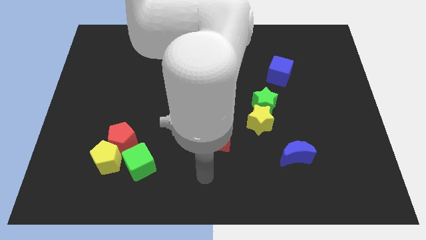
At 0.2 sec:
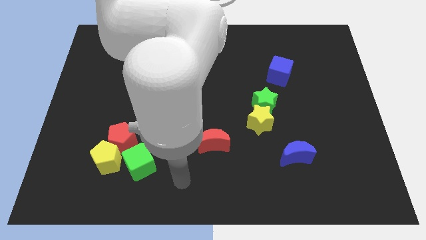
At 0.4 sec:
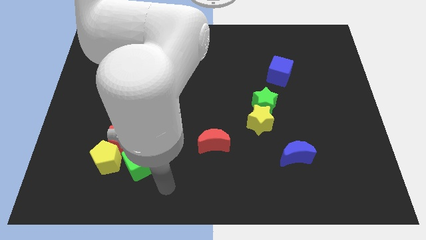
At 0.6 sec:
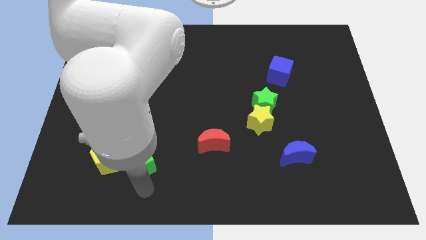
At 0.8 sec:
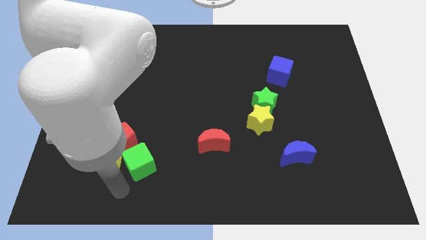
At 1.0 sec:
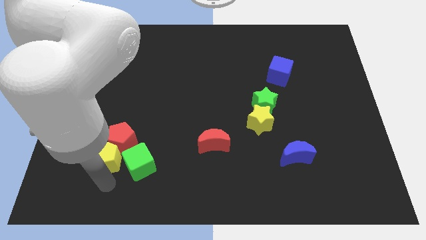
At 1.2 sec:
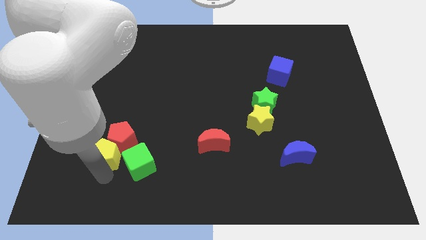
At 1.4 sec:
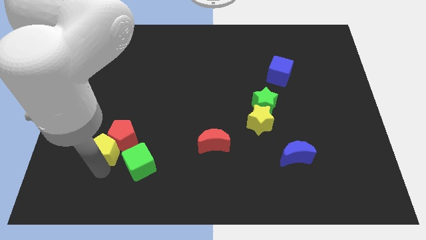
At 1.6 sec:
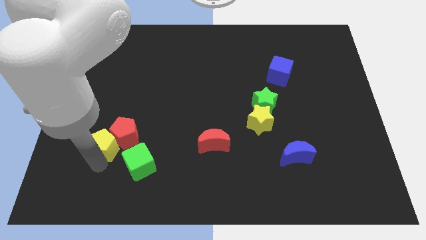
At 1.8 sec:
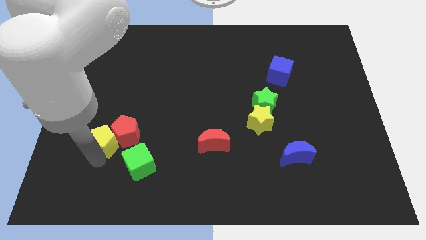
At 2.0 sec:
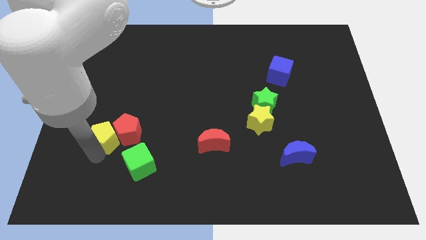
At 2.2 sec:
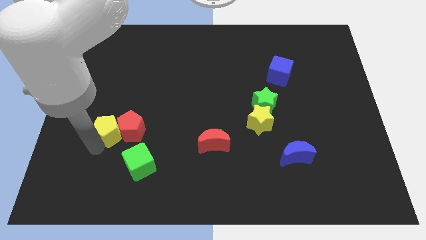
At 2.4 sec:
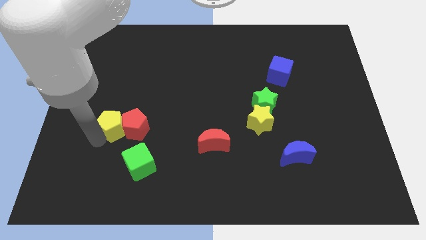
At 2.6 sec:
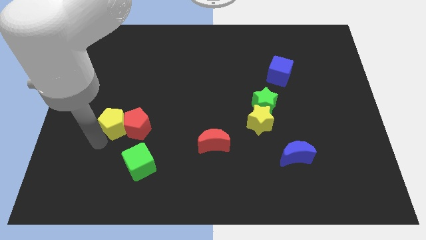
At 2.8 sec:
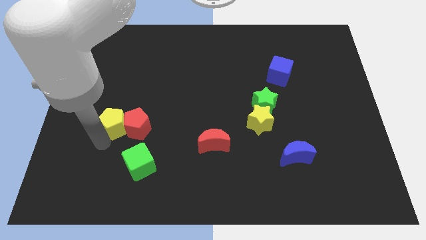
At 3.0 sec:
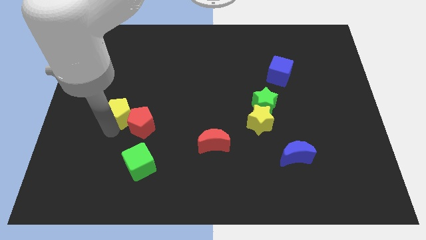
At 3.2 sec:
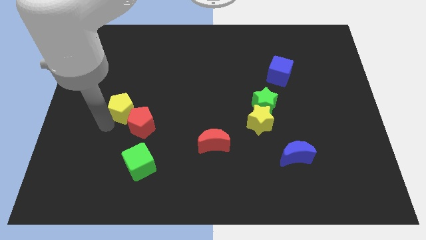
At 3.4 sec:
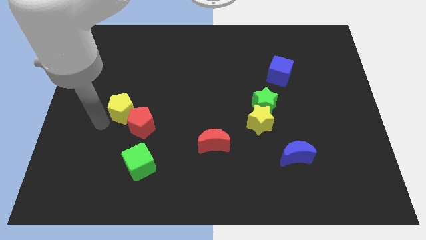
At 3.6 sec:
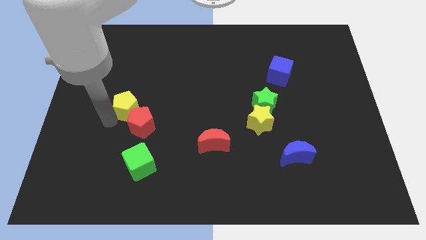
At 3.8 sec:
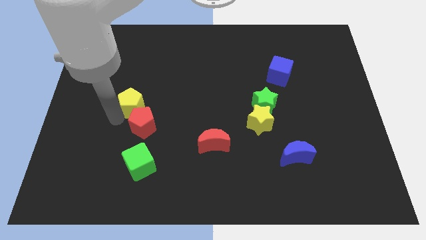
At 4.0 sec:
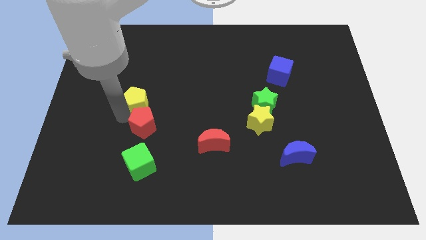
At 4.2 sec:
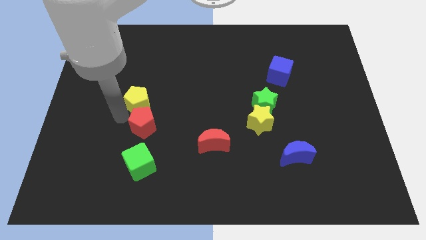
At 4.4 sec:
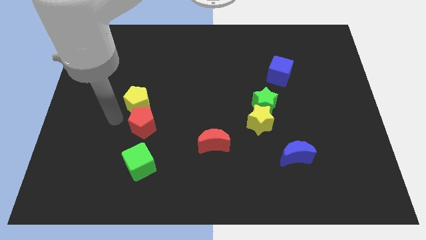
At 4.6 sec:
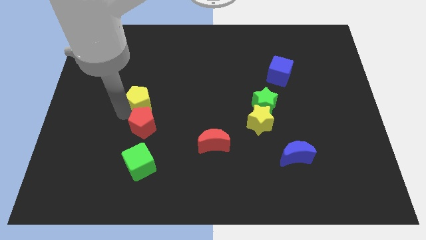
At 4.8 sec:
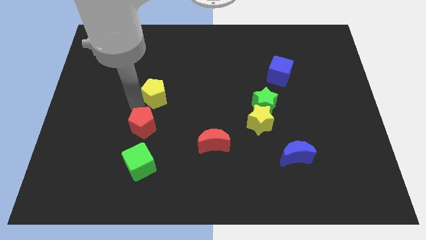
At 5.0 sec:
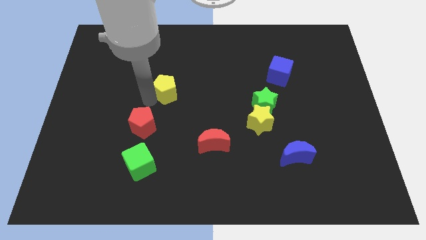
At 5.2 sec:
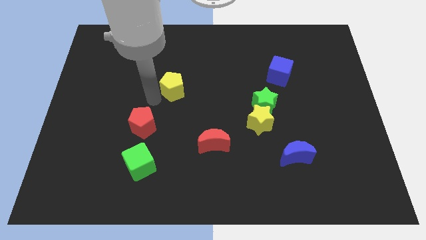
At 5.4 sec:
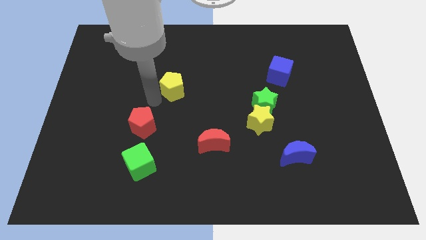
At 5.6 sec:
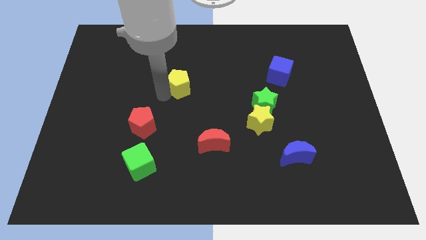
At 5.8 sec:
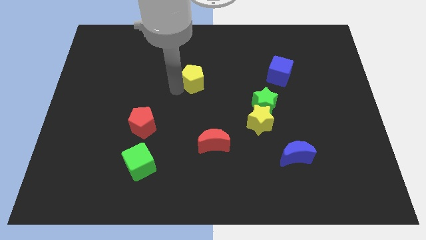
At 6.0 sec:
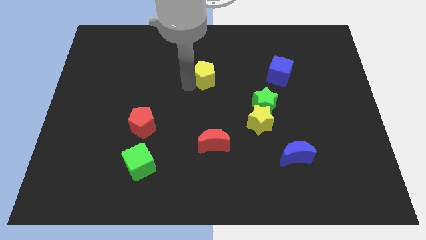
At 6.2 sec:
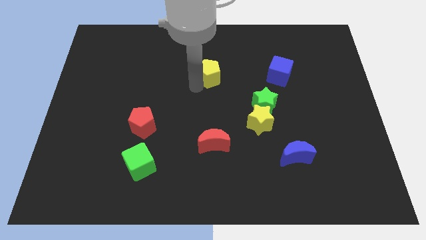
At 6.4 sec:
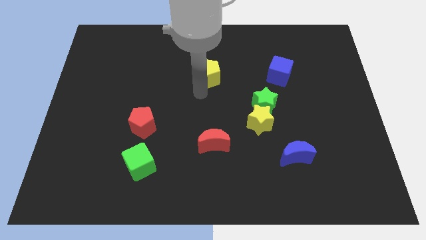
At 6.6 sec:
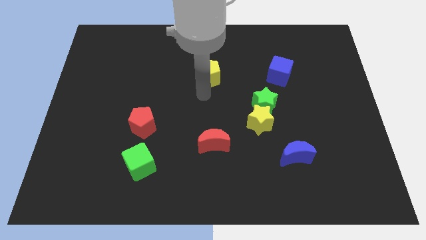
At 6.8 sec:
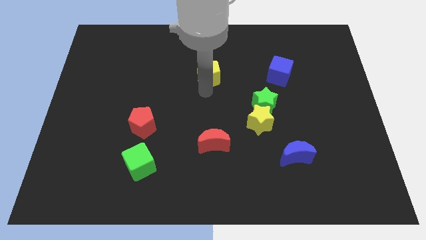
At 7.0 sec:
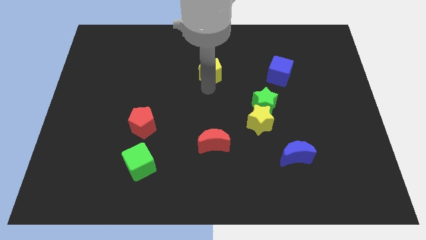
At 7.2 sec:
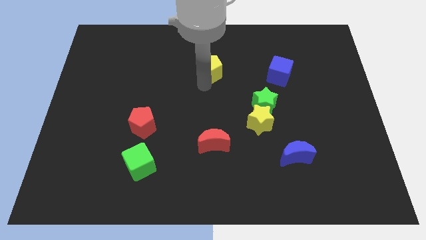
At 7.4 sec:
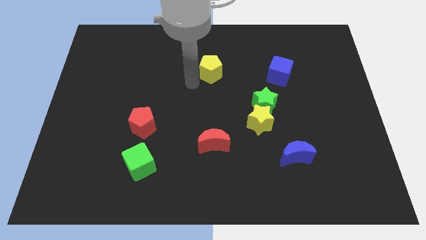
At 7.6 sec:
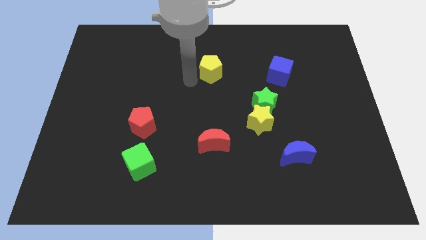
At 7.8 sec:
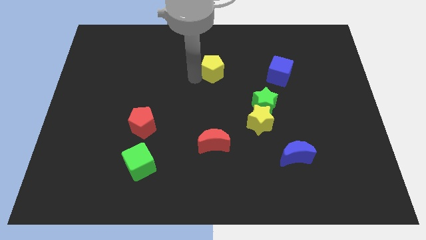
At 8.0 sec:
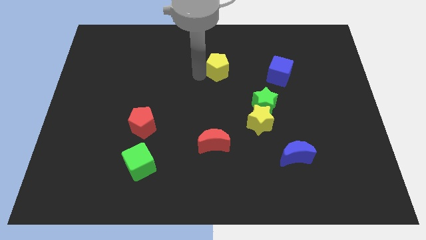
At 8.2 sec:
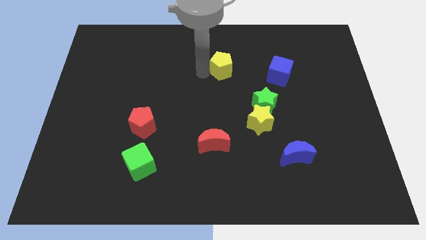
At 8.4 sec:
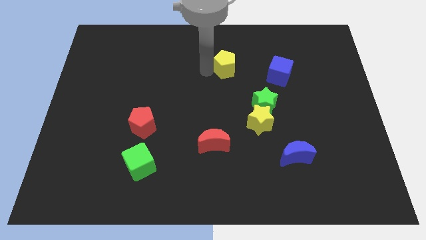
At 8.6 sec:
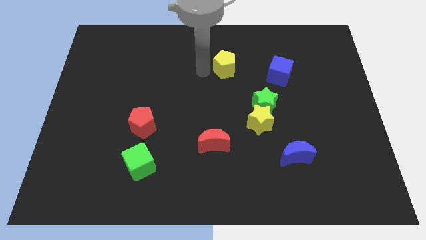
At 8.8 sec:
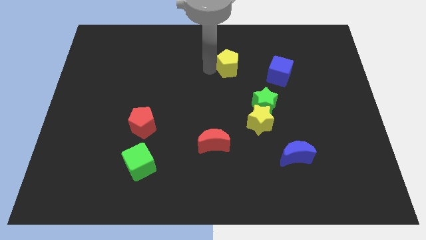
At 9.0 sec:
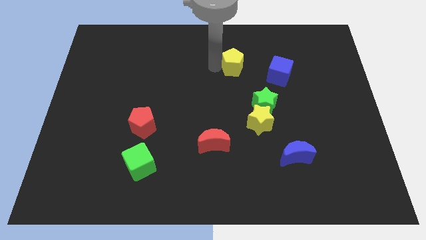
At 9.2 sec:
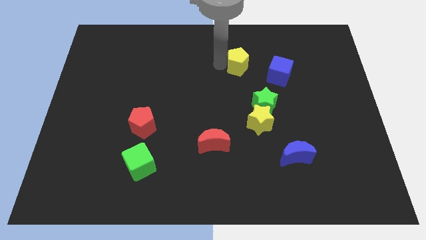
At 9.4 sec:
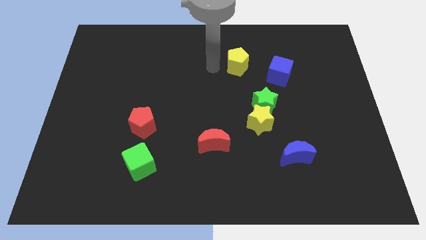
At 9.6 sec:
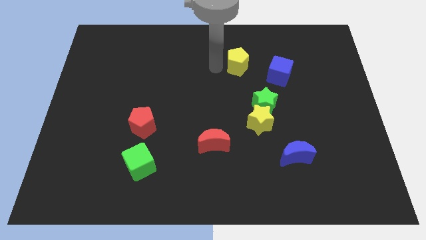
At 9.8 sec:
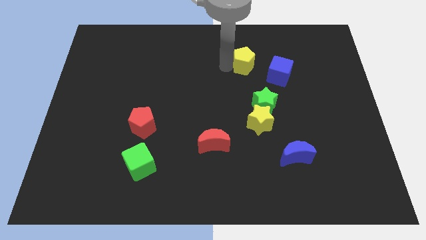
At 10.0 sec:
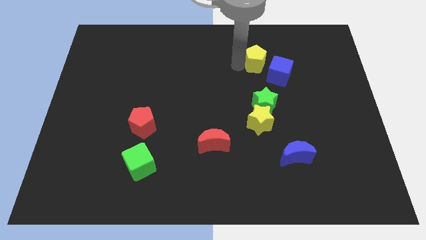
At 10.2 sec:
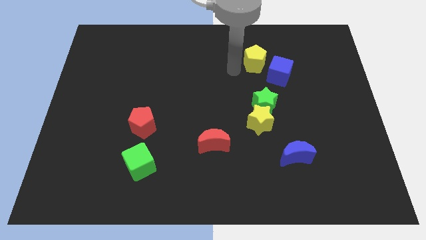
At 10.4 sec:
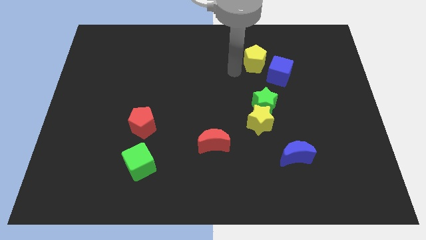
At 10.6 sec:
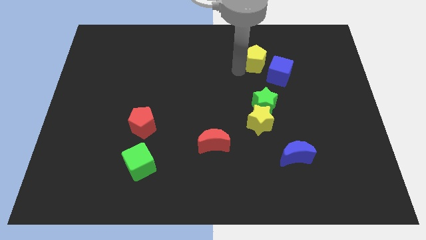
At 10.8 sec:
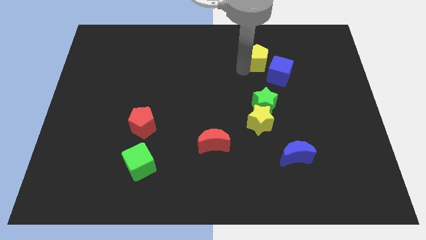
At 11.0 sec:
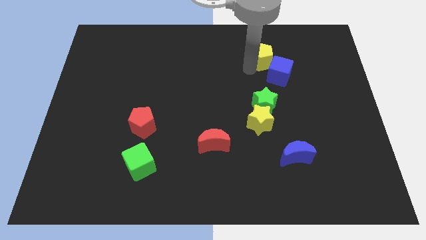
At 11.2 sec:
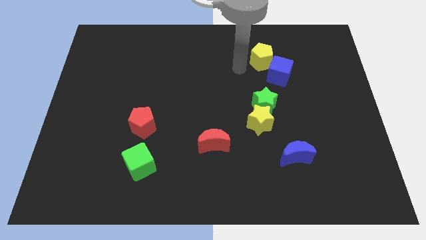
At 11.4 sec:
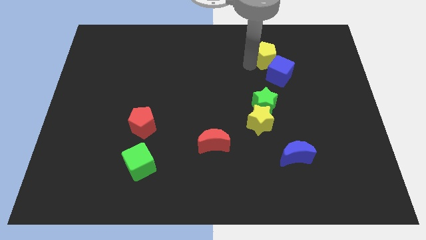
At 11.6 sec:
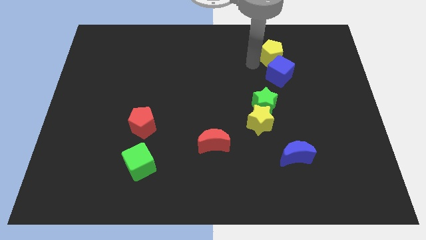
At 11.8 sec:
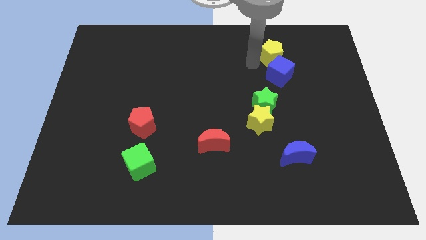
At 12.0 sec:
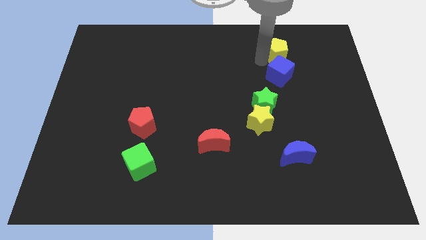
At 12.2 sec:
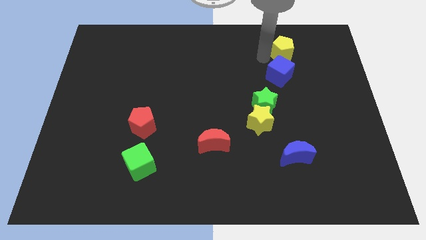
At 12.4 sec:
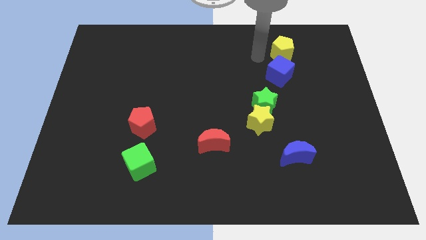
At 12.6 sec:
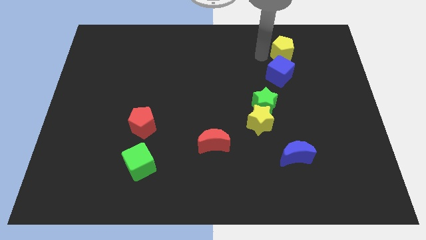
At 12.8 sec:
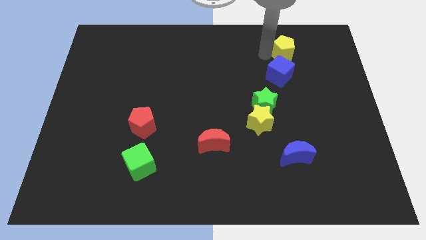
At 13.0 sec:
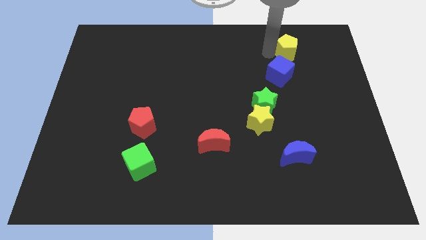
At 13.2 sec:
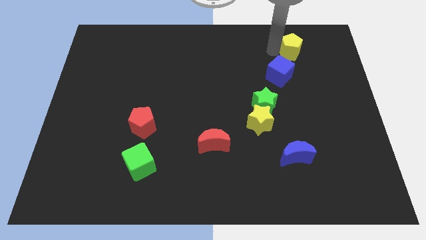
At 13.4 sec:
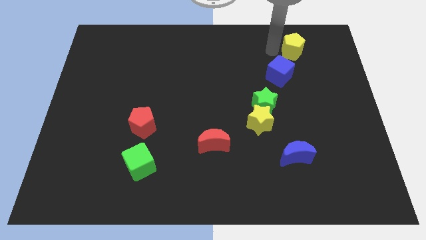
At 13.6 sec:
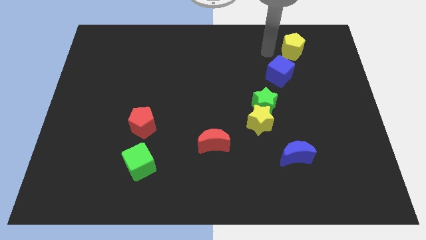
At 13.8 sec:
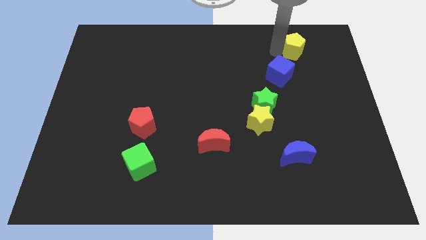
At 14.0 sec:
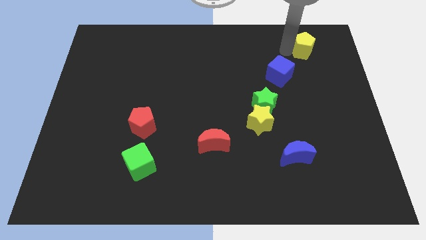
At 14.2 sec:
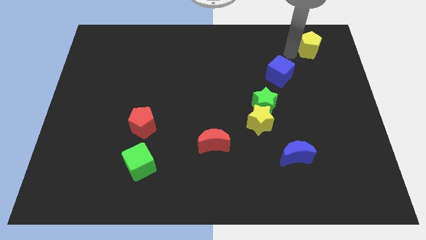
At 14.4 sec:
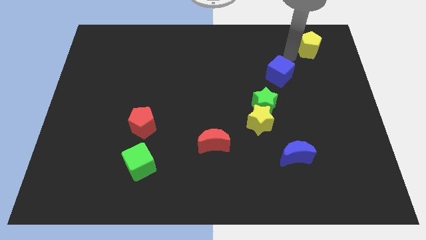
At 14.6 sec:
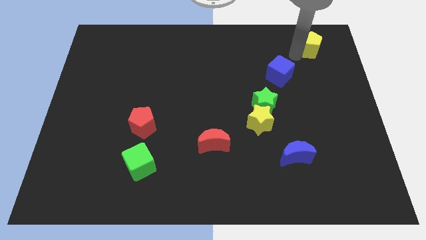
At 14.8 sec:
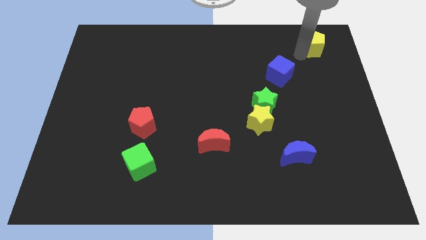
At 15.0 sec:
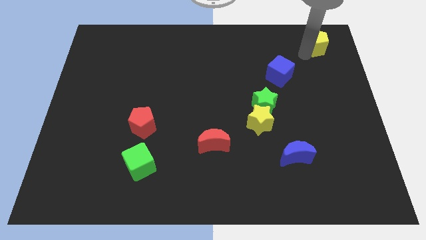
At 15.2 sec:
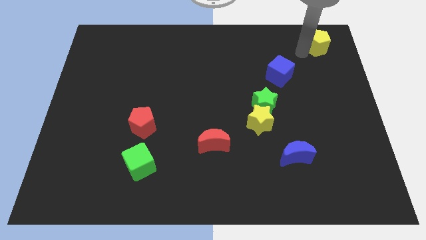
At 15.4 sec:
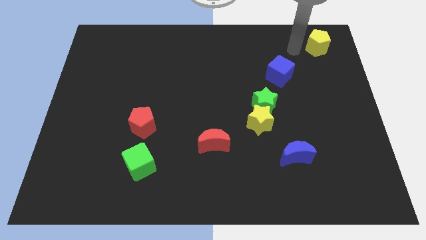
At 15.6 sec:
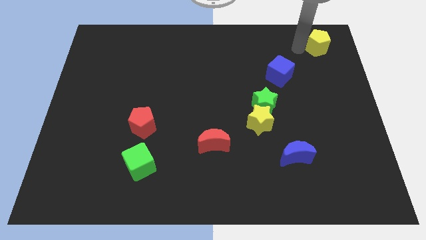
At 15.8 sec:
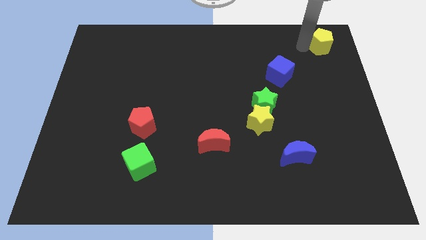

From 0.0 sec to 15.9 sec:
put the yellow pentagon to the upper right corner
